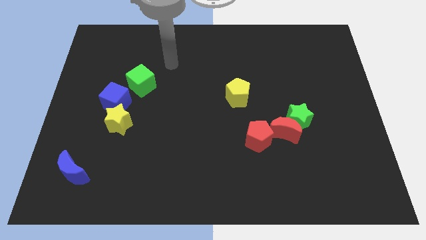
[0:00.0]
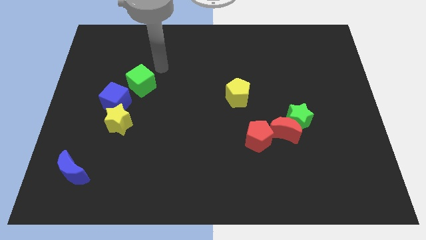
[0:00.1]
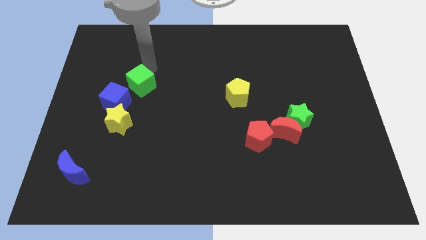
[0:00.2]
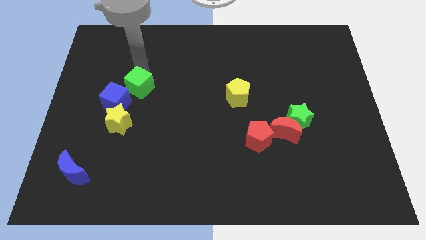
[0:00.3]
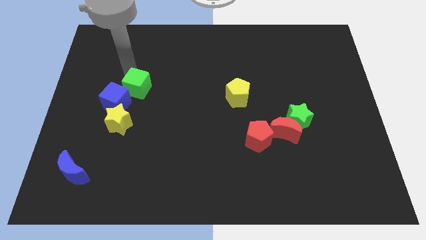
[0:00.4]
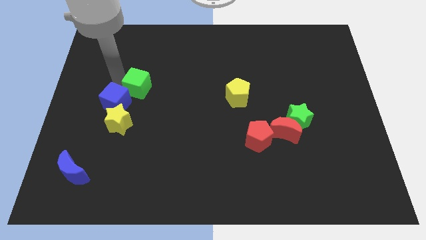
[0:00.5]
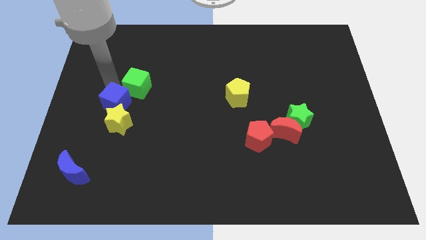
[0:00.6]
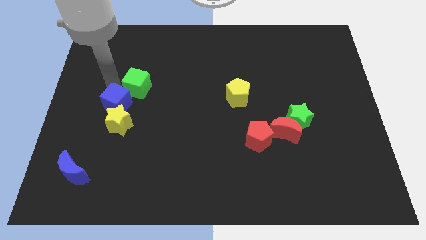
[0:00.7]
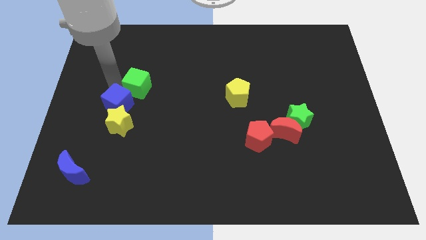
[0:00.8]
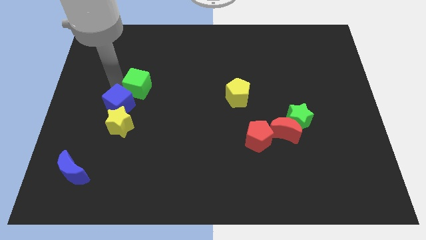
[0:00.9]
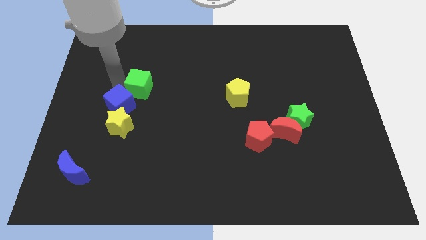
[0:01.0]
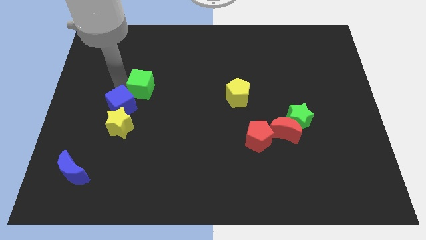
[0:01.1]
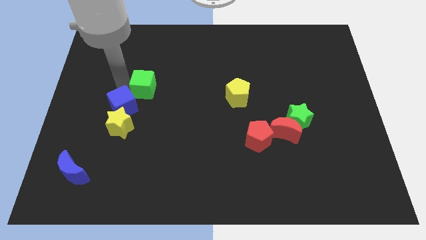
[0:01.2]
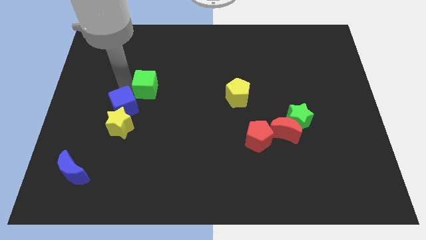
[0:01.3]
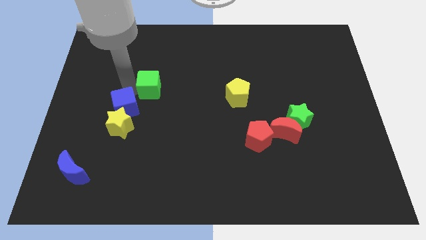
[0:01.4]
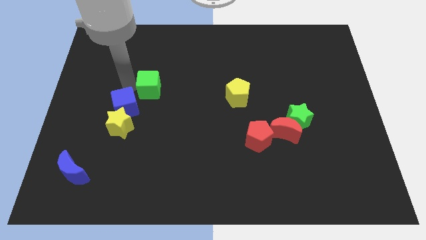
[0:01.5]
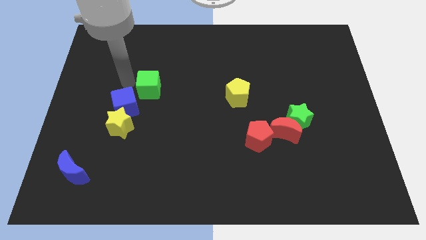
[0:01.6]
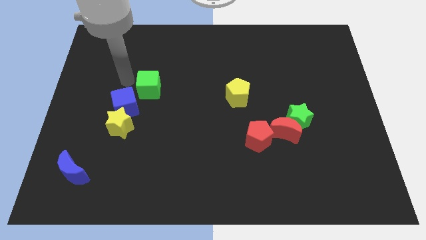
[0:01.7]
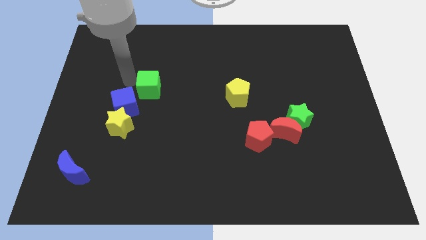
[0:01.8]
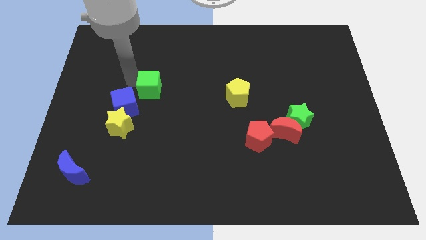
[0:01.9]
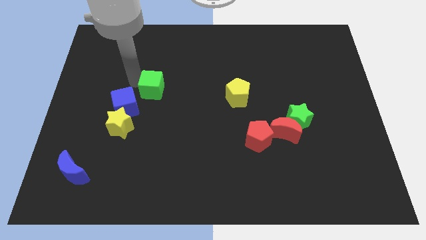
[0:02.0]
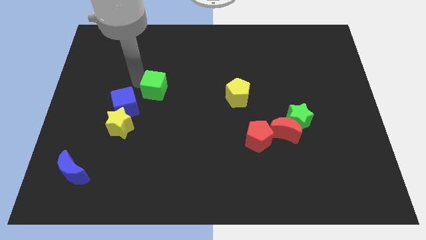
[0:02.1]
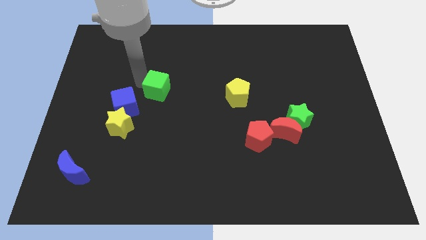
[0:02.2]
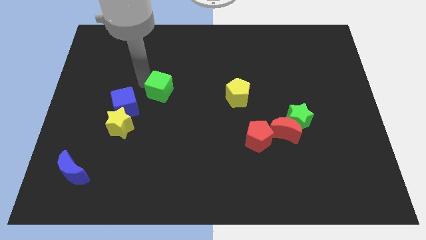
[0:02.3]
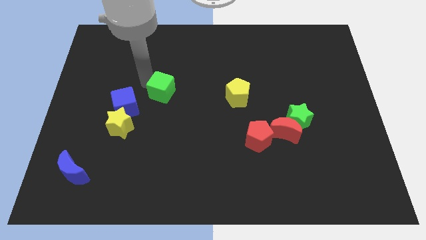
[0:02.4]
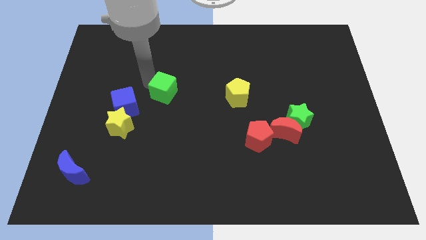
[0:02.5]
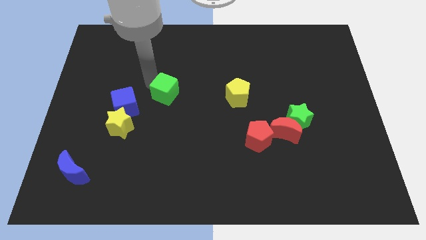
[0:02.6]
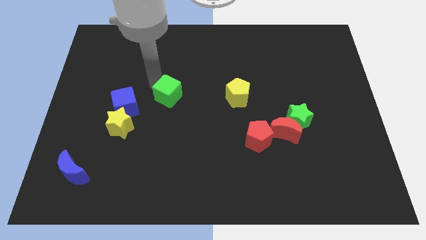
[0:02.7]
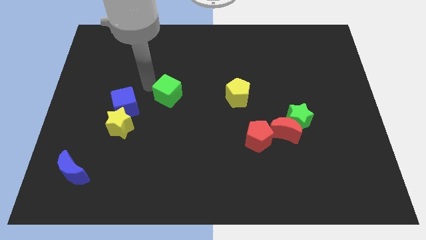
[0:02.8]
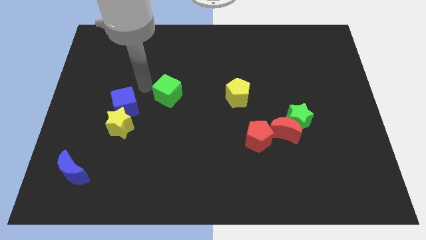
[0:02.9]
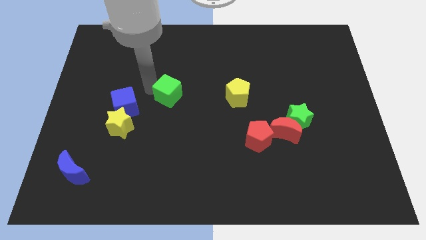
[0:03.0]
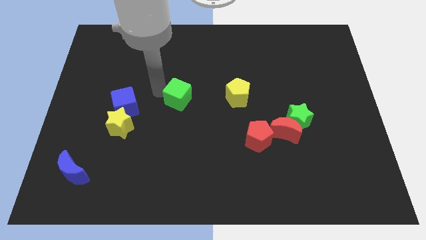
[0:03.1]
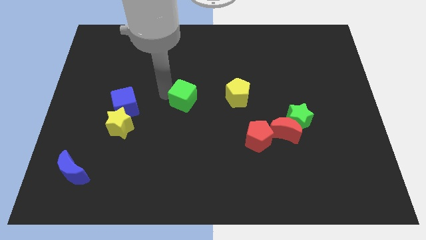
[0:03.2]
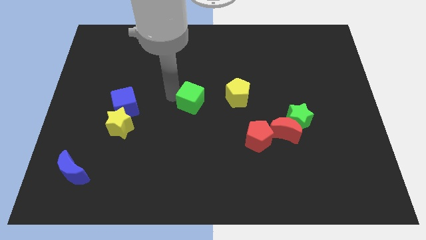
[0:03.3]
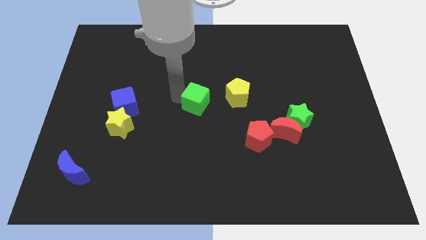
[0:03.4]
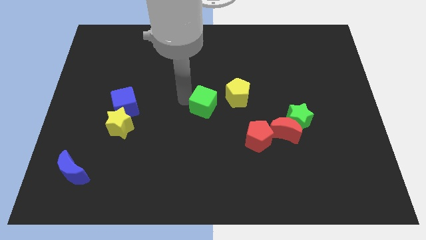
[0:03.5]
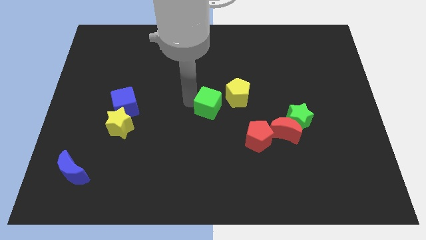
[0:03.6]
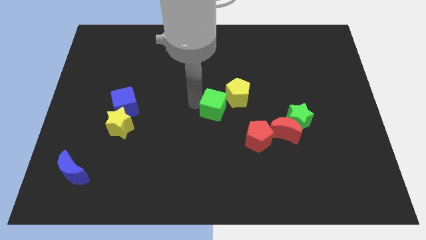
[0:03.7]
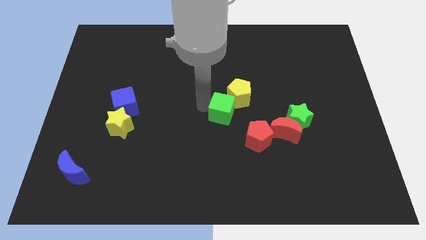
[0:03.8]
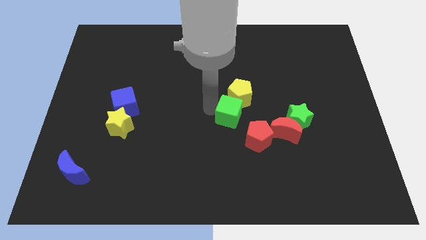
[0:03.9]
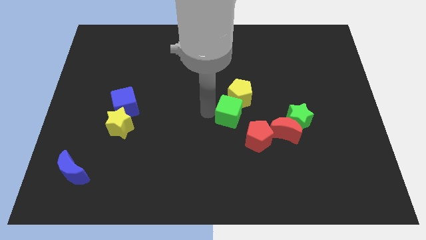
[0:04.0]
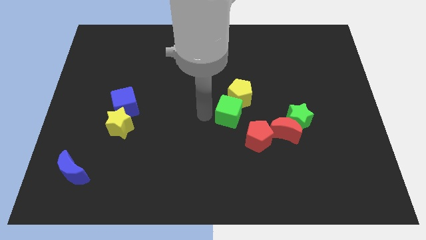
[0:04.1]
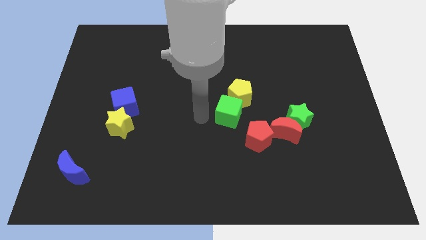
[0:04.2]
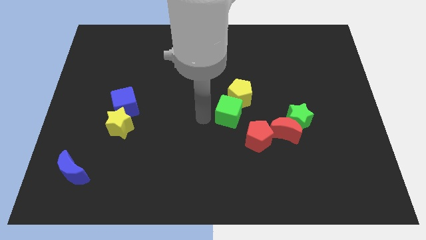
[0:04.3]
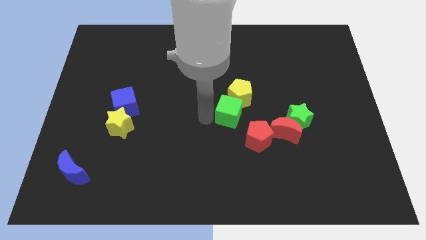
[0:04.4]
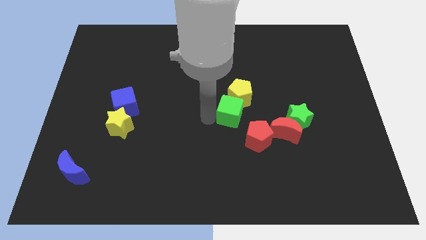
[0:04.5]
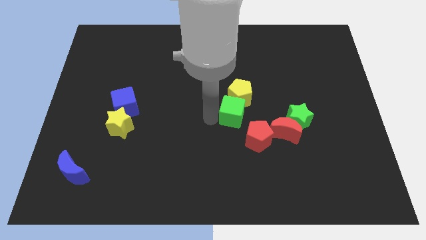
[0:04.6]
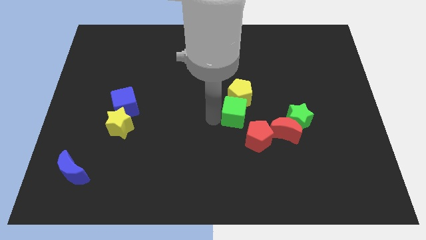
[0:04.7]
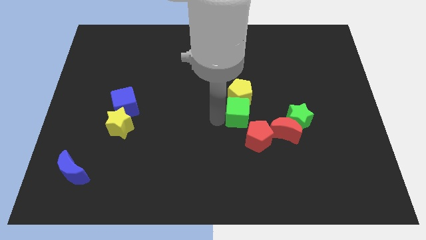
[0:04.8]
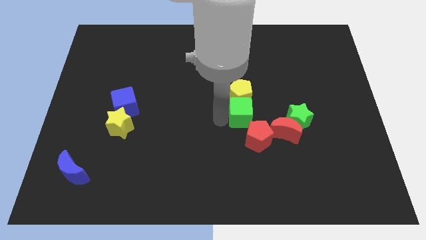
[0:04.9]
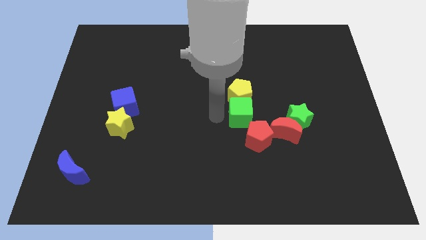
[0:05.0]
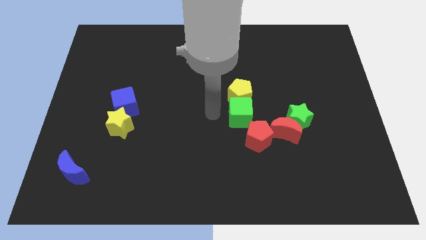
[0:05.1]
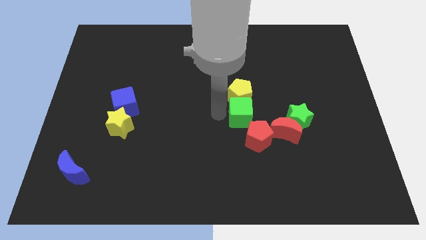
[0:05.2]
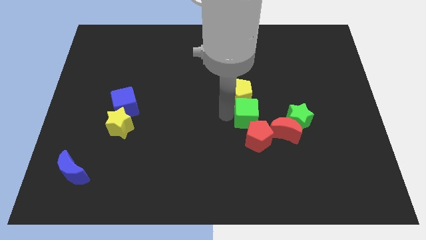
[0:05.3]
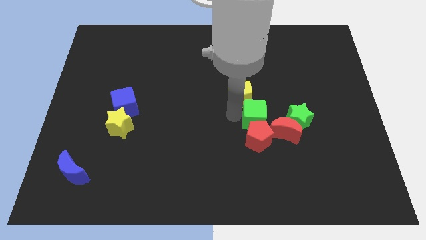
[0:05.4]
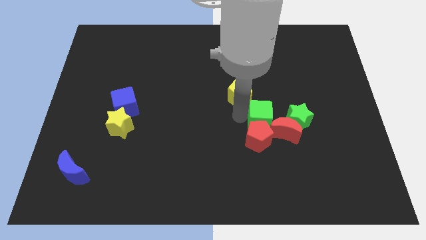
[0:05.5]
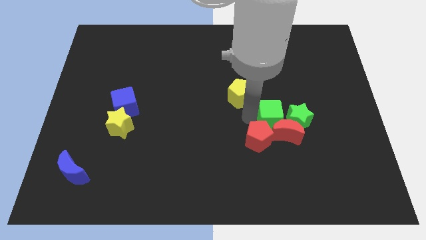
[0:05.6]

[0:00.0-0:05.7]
push the green cube close to the green star

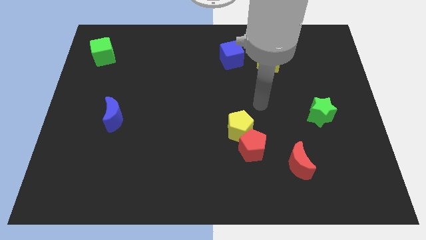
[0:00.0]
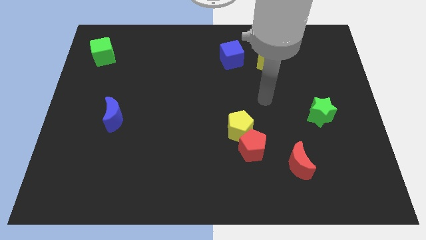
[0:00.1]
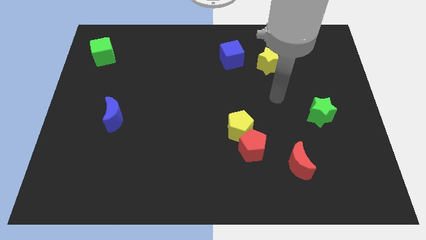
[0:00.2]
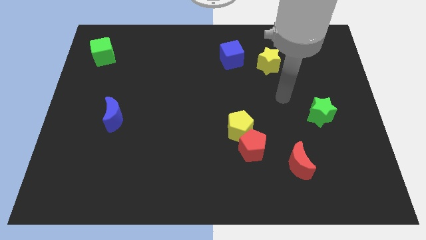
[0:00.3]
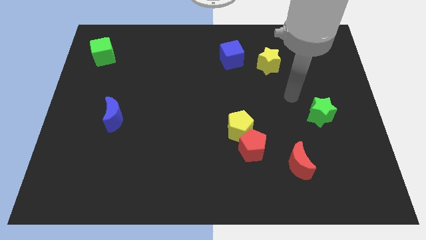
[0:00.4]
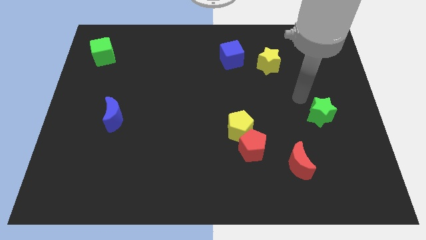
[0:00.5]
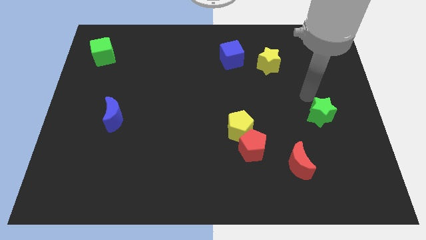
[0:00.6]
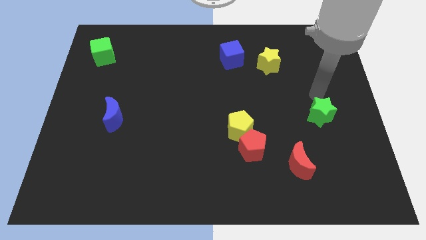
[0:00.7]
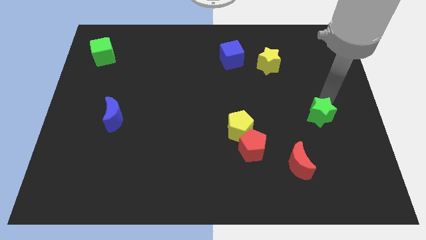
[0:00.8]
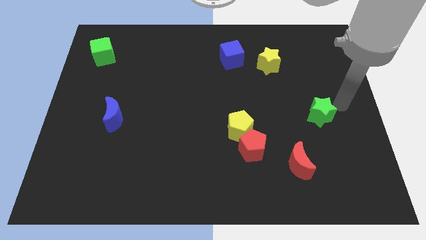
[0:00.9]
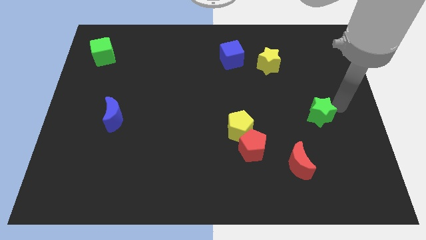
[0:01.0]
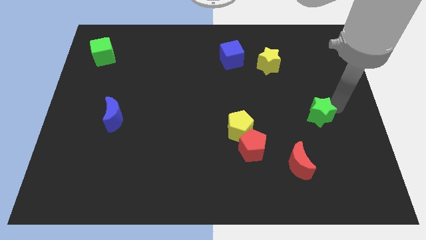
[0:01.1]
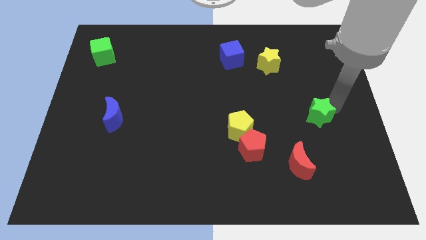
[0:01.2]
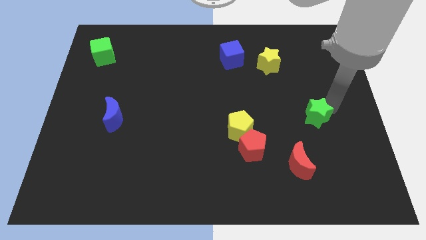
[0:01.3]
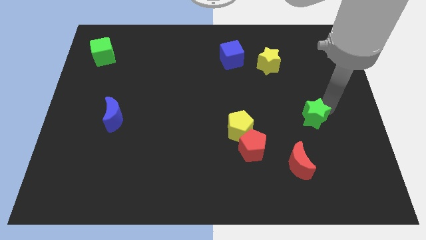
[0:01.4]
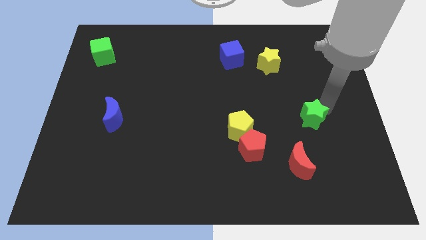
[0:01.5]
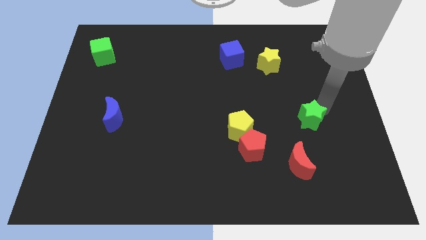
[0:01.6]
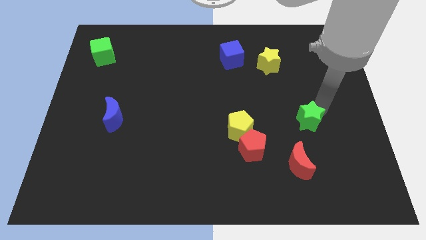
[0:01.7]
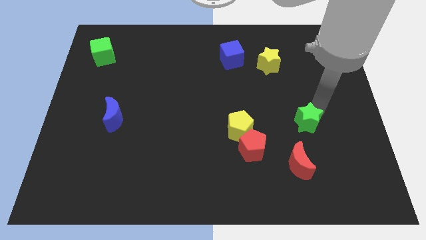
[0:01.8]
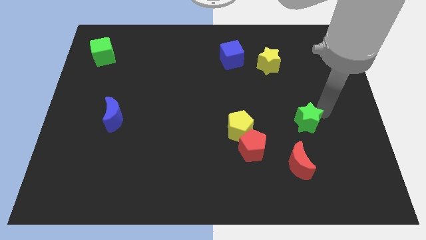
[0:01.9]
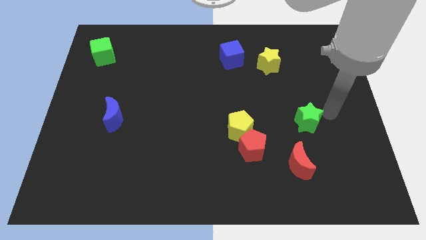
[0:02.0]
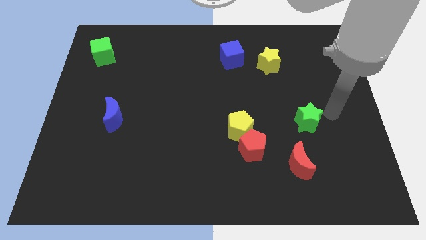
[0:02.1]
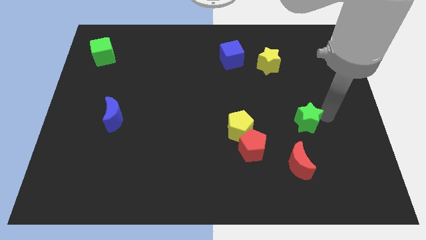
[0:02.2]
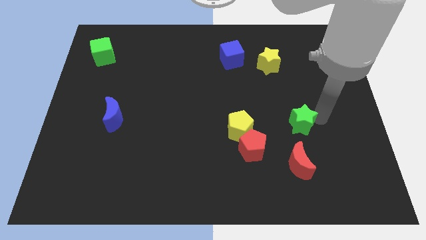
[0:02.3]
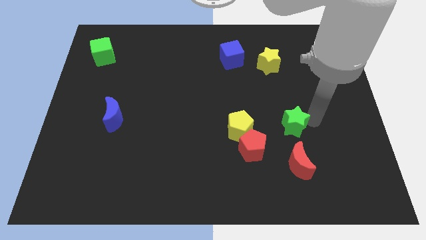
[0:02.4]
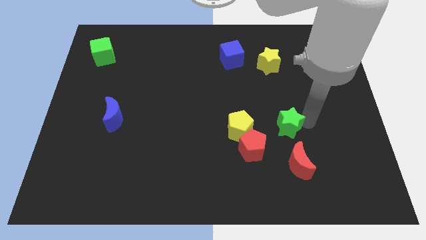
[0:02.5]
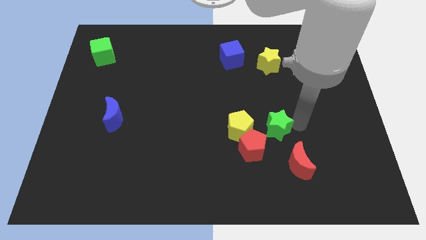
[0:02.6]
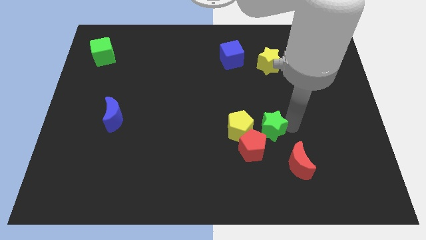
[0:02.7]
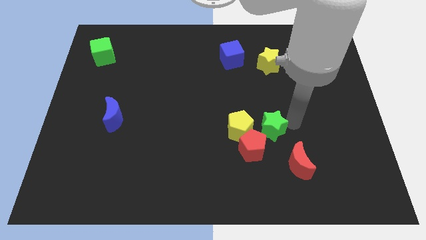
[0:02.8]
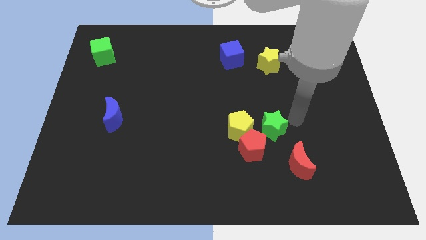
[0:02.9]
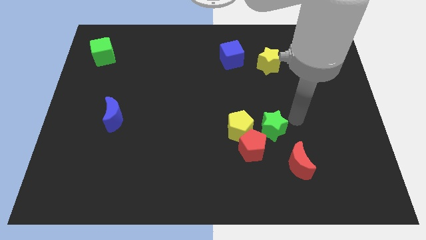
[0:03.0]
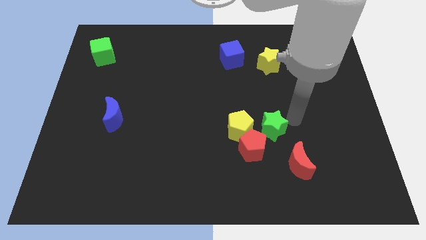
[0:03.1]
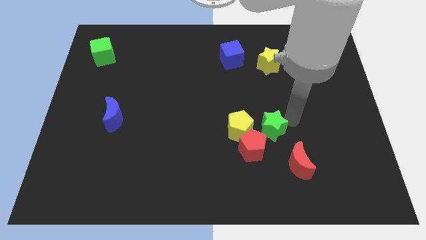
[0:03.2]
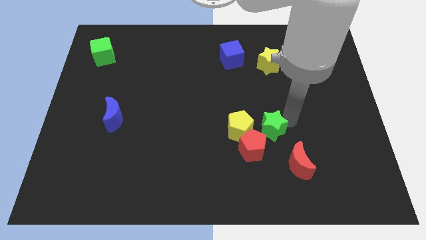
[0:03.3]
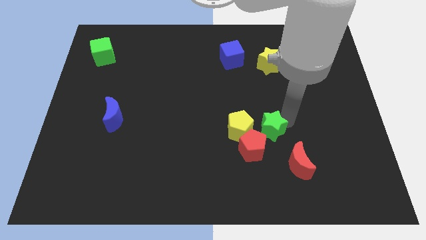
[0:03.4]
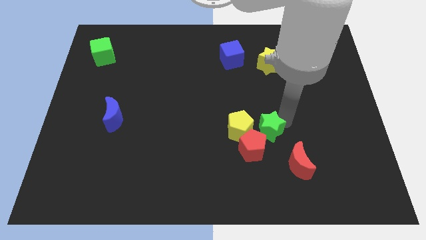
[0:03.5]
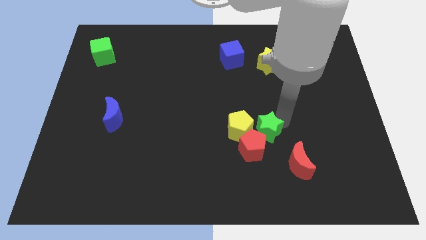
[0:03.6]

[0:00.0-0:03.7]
move the green star to the red pentagon
